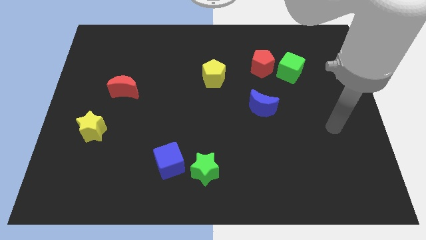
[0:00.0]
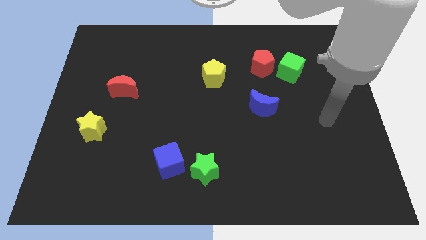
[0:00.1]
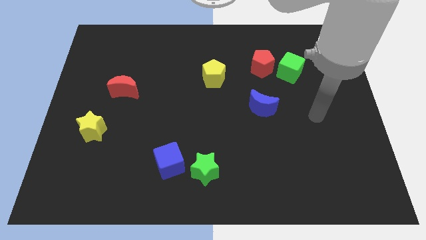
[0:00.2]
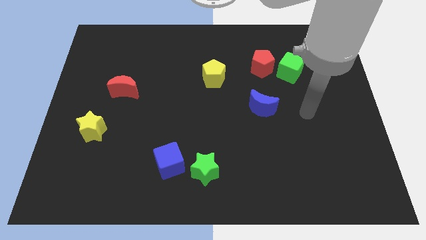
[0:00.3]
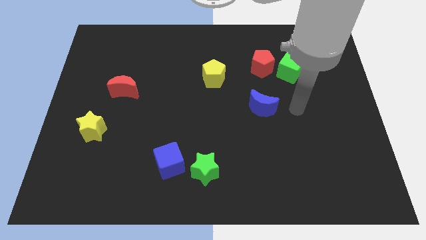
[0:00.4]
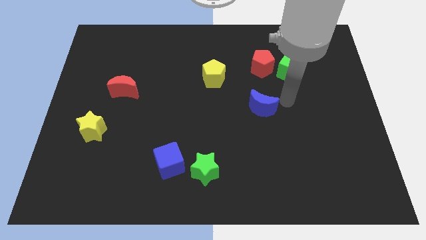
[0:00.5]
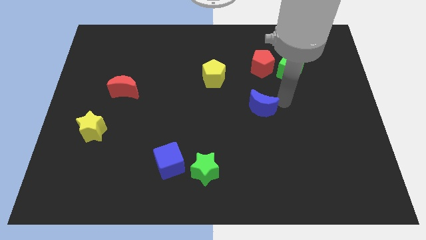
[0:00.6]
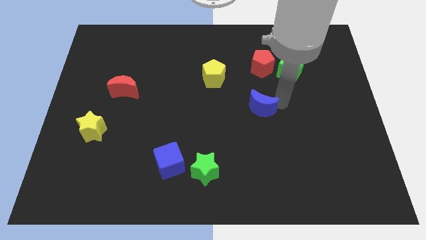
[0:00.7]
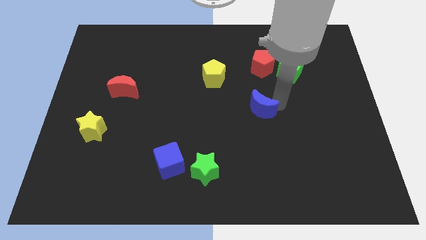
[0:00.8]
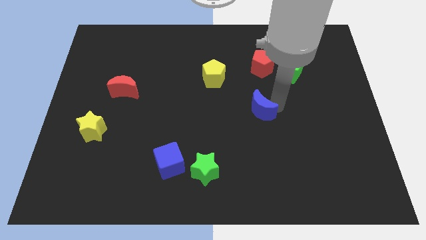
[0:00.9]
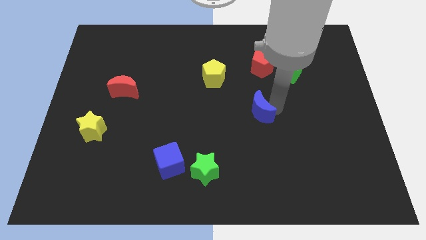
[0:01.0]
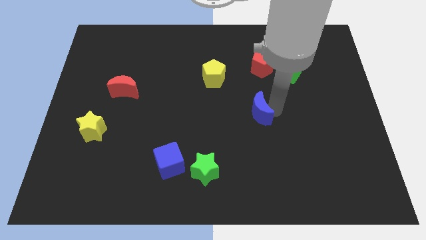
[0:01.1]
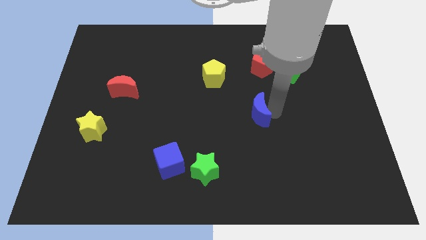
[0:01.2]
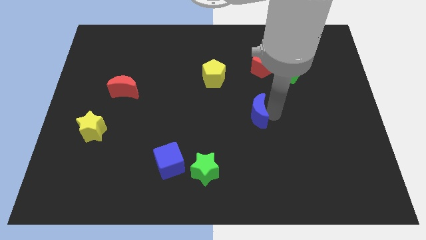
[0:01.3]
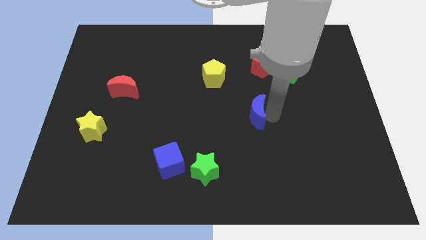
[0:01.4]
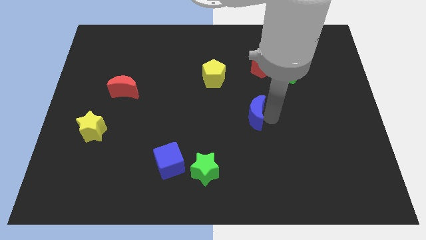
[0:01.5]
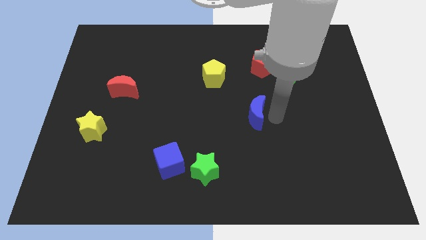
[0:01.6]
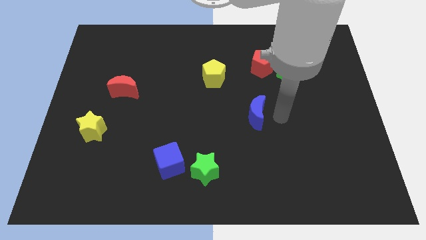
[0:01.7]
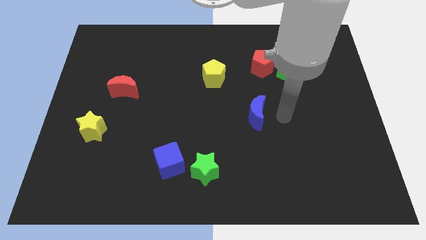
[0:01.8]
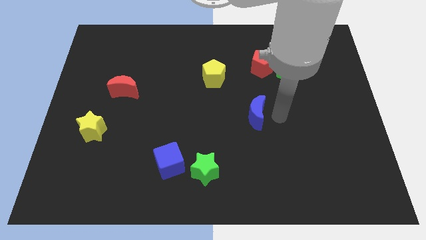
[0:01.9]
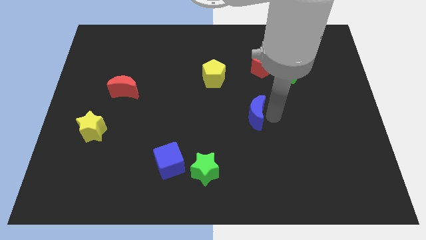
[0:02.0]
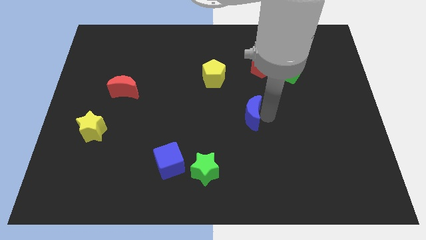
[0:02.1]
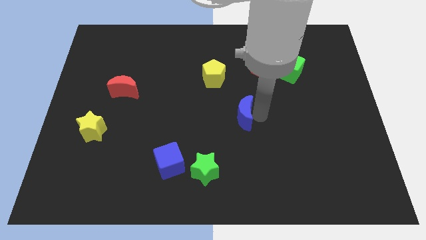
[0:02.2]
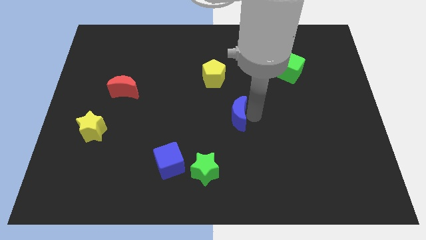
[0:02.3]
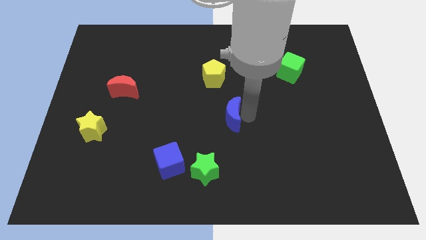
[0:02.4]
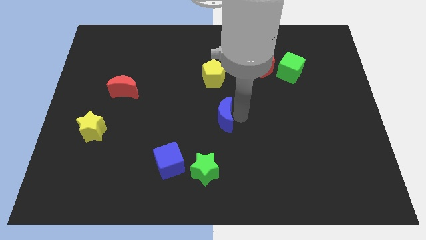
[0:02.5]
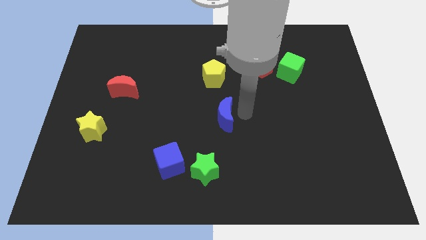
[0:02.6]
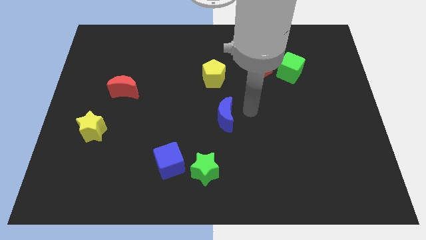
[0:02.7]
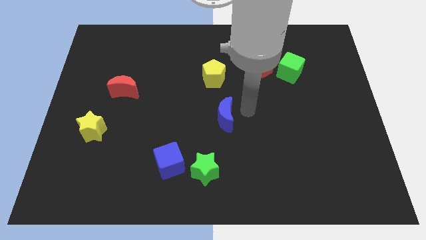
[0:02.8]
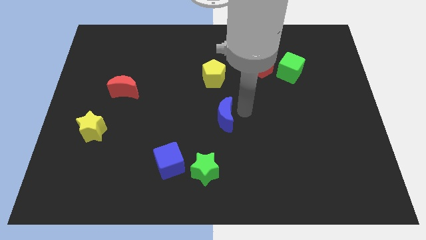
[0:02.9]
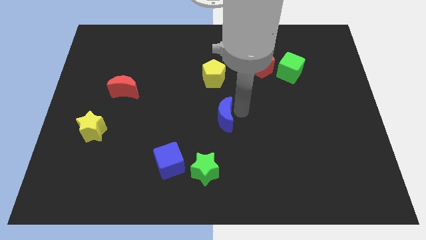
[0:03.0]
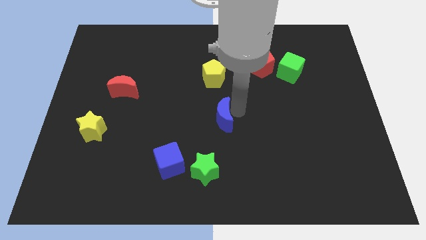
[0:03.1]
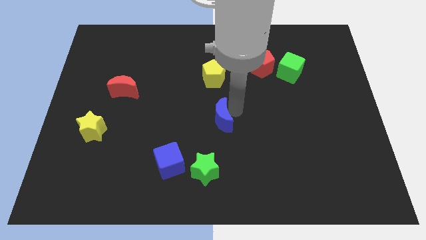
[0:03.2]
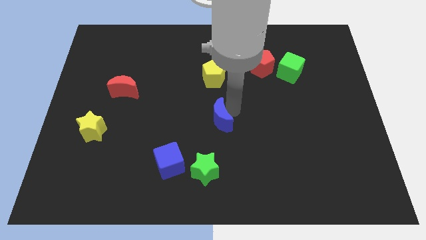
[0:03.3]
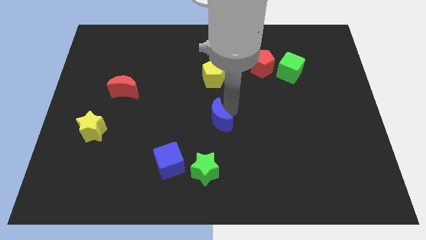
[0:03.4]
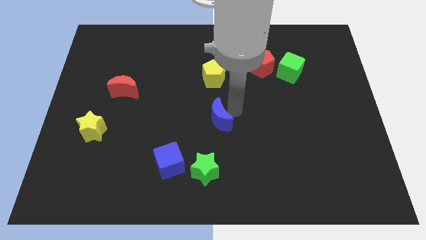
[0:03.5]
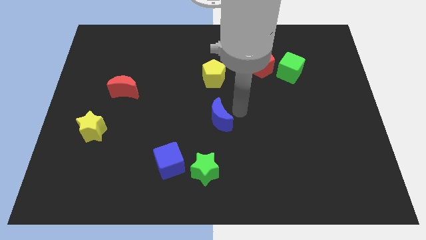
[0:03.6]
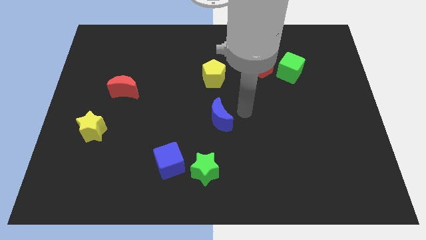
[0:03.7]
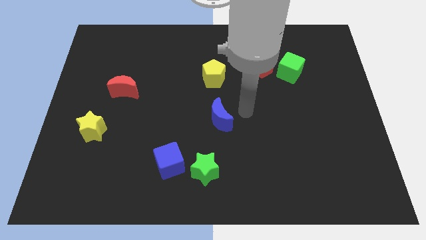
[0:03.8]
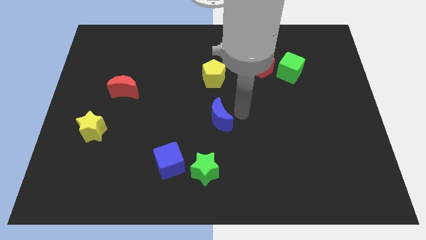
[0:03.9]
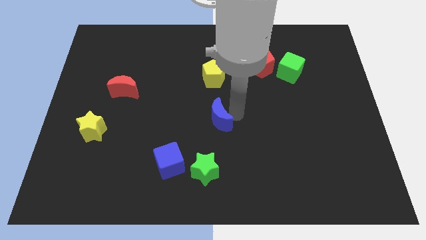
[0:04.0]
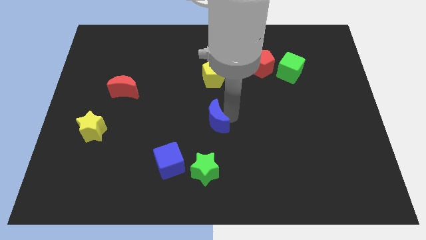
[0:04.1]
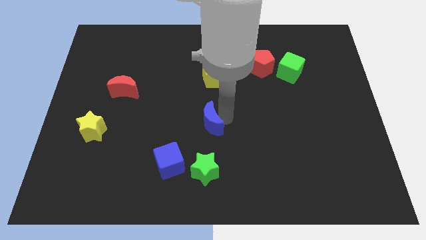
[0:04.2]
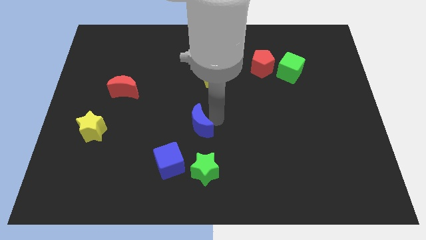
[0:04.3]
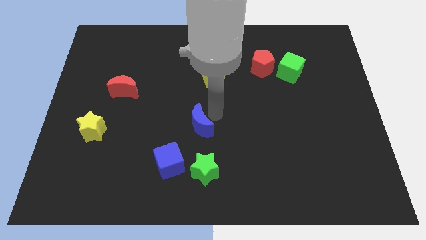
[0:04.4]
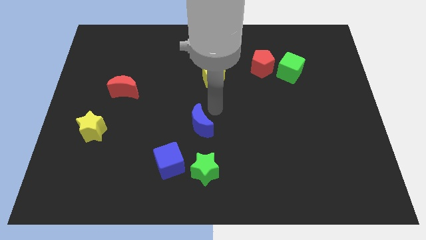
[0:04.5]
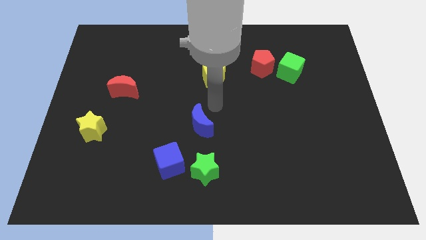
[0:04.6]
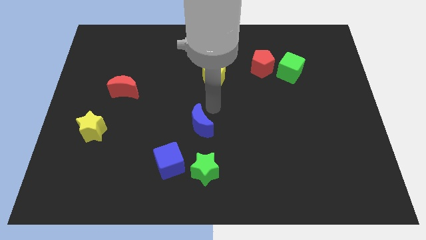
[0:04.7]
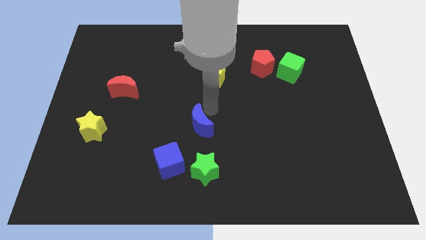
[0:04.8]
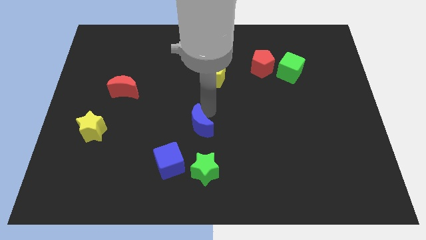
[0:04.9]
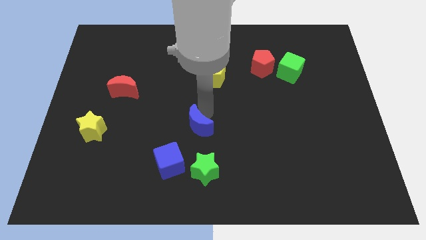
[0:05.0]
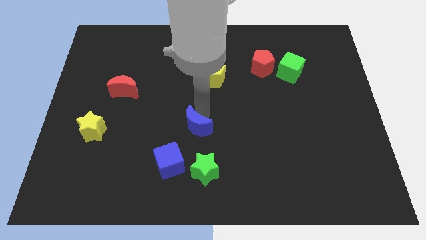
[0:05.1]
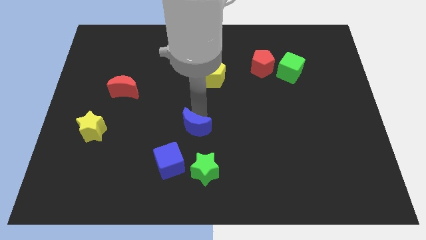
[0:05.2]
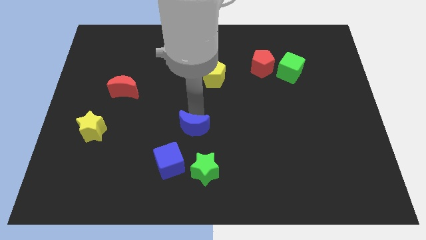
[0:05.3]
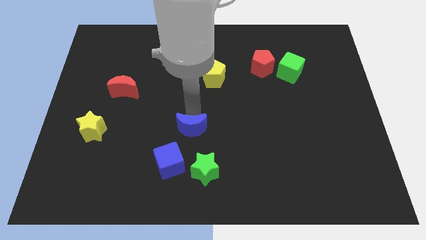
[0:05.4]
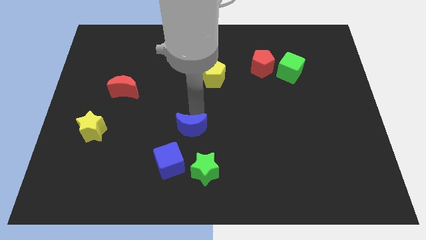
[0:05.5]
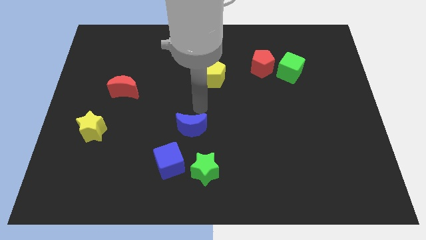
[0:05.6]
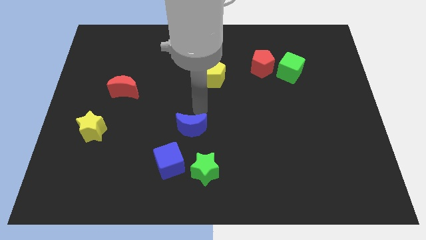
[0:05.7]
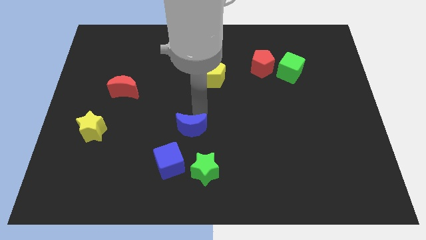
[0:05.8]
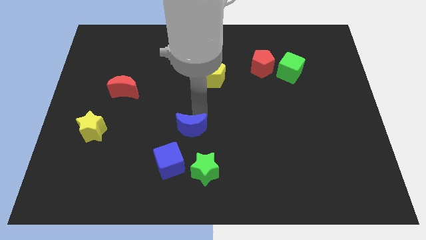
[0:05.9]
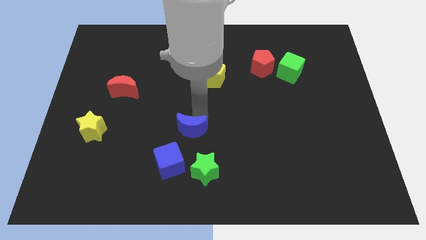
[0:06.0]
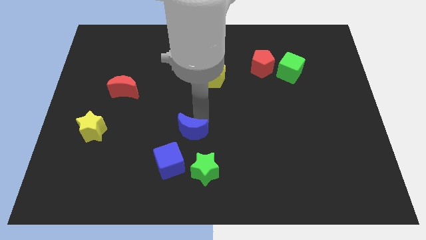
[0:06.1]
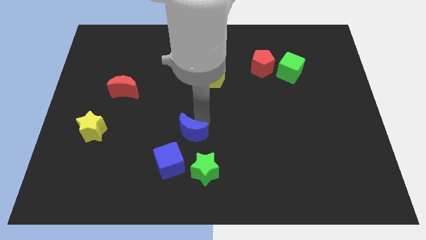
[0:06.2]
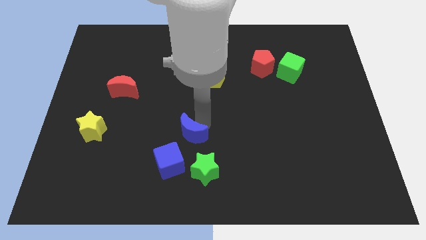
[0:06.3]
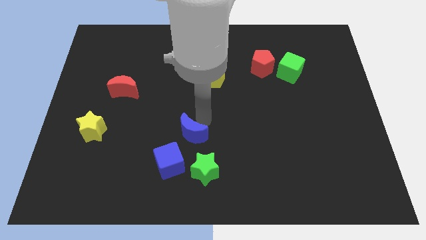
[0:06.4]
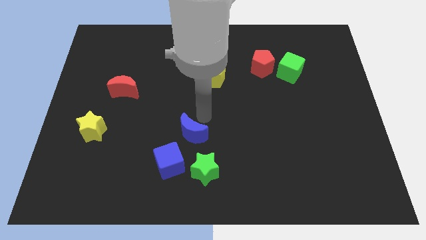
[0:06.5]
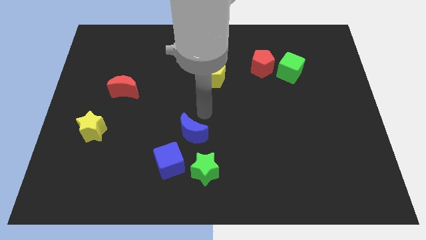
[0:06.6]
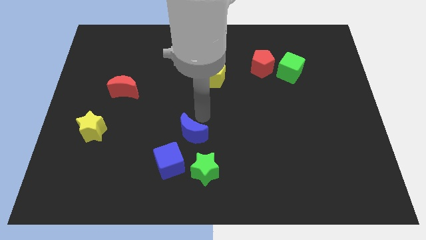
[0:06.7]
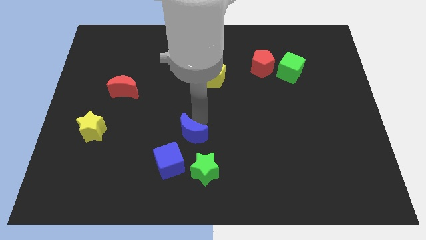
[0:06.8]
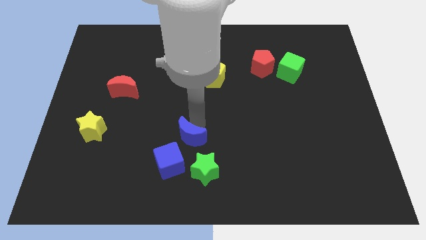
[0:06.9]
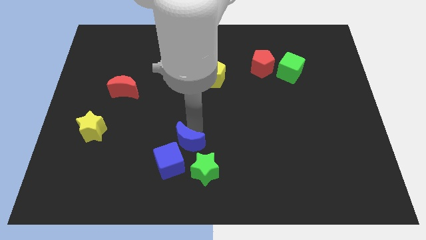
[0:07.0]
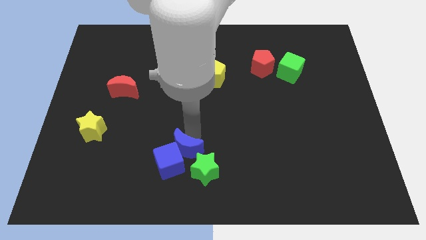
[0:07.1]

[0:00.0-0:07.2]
put the blue moon towards the blue cube

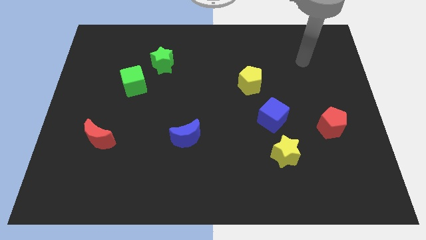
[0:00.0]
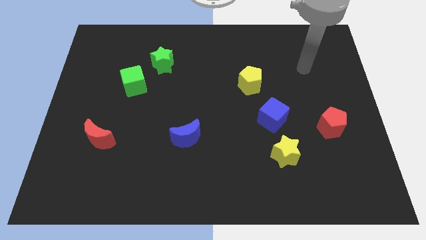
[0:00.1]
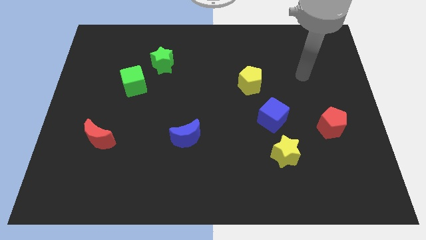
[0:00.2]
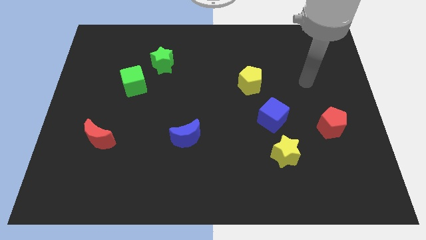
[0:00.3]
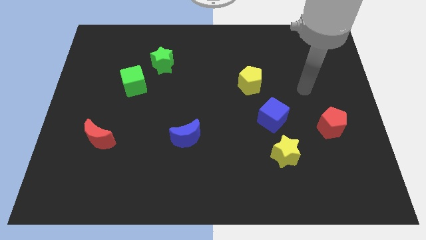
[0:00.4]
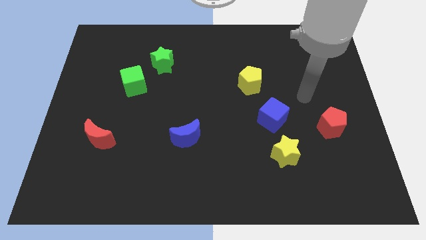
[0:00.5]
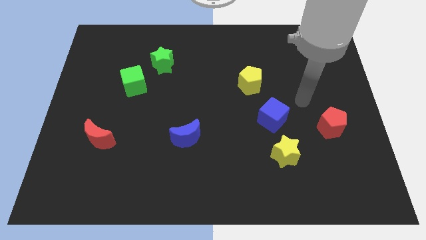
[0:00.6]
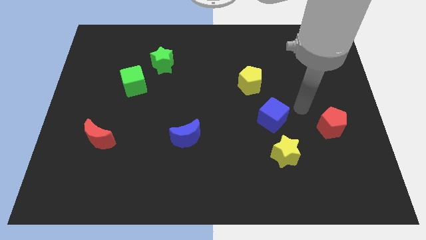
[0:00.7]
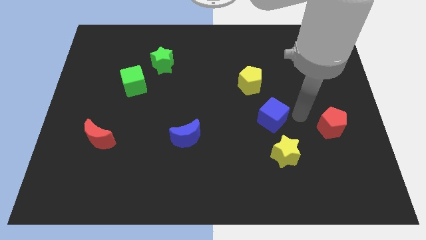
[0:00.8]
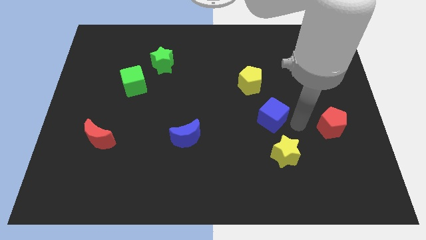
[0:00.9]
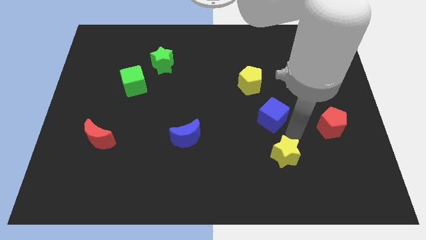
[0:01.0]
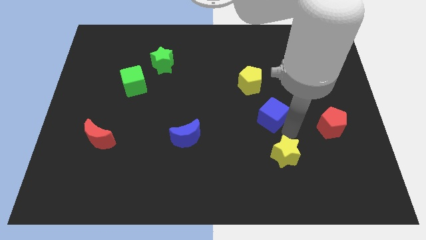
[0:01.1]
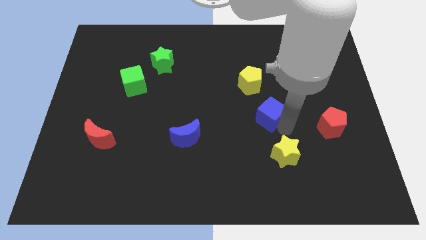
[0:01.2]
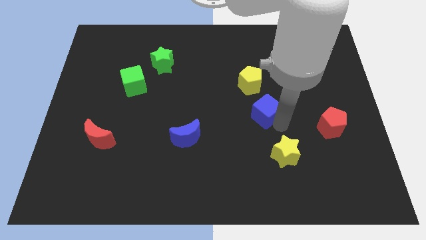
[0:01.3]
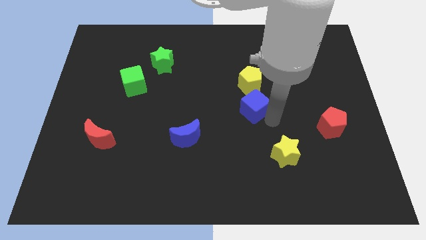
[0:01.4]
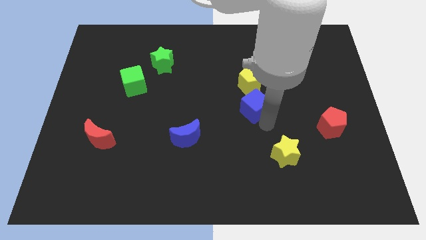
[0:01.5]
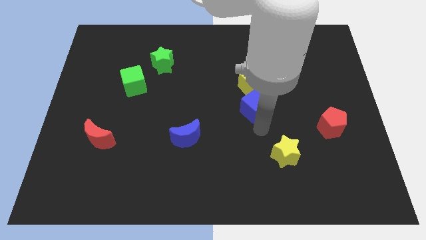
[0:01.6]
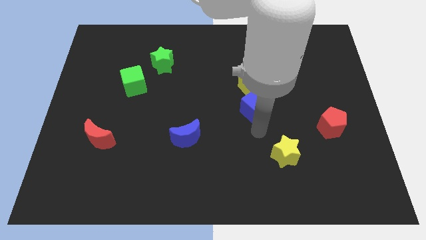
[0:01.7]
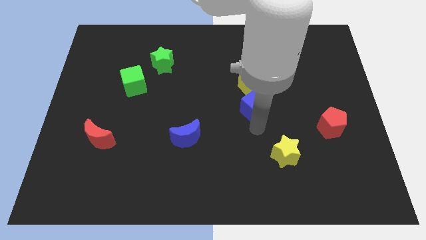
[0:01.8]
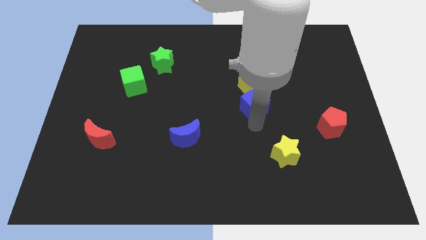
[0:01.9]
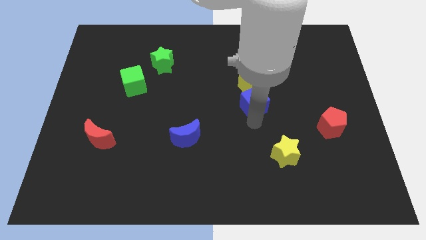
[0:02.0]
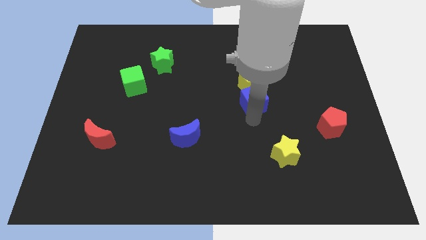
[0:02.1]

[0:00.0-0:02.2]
slide the blue cube close to the yellow pentagon
